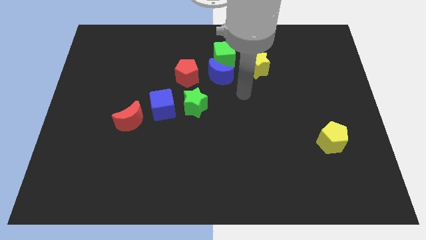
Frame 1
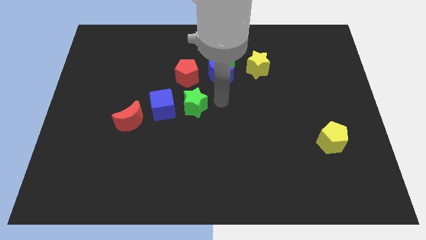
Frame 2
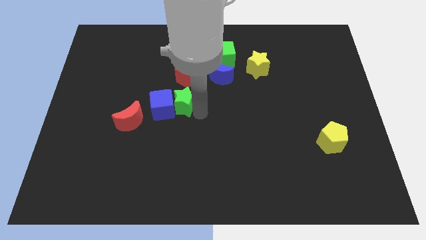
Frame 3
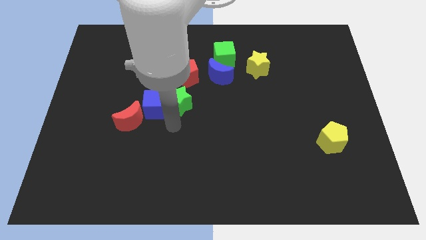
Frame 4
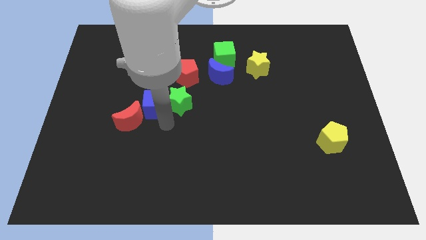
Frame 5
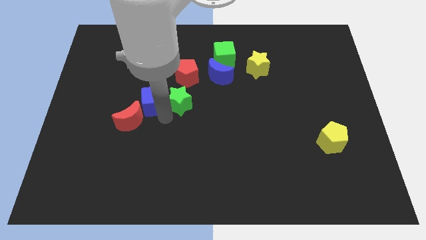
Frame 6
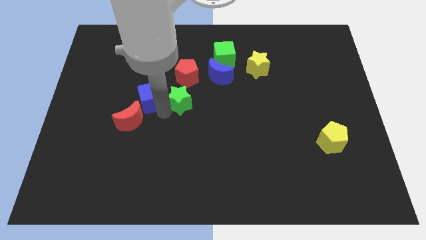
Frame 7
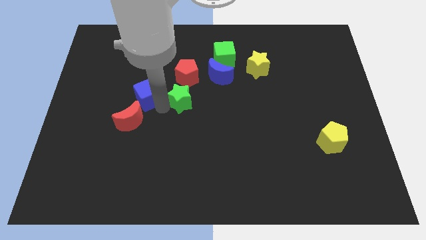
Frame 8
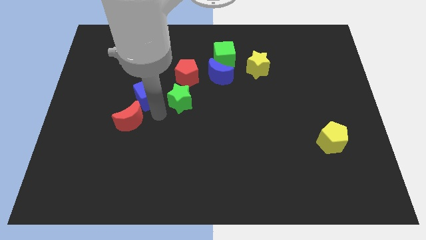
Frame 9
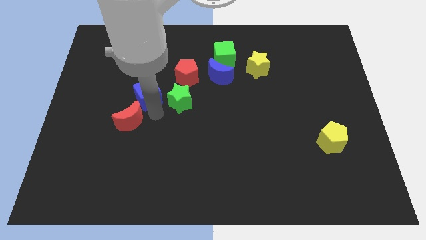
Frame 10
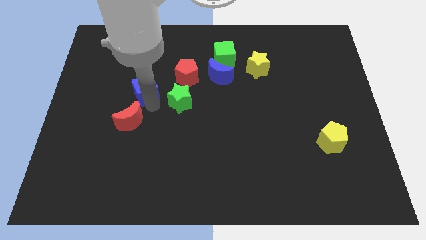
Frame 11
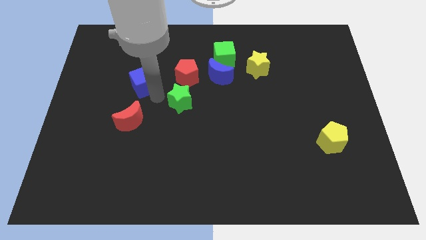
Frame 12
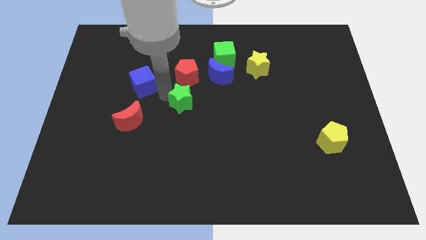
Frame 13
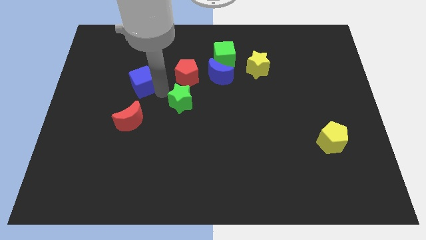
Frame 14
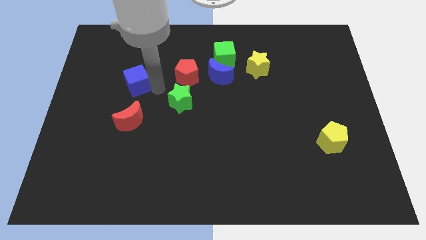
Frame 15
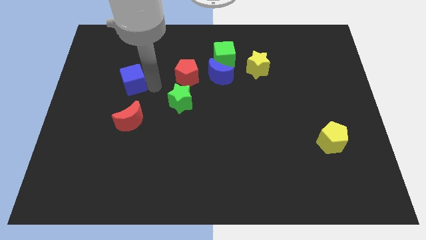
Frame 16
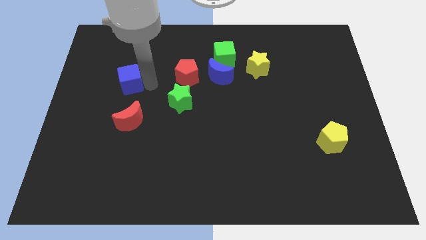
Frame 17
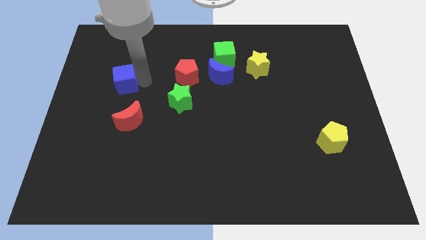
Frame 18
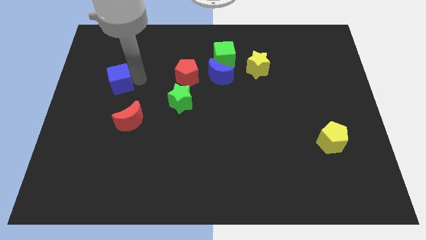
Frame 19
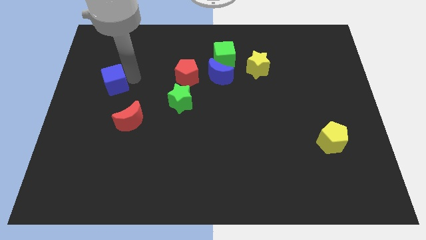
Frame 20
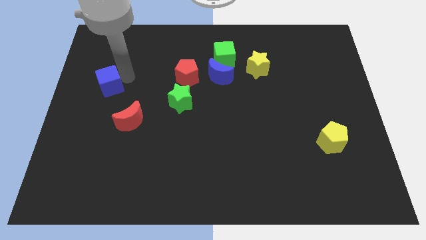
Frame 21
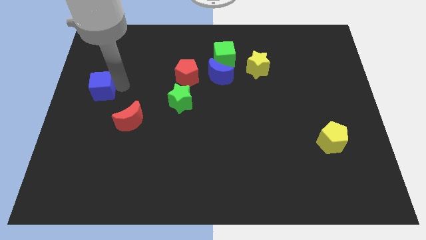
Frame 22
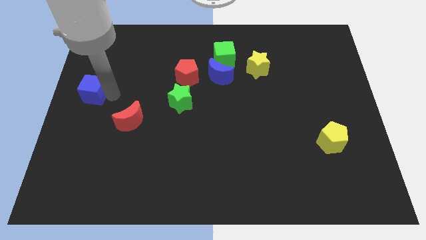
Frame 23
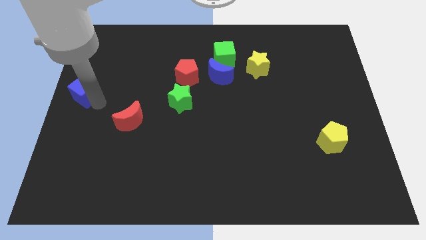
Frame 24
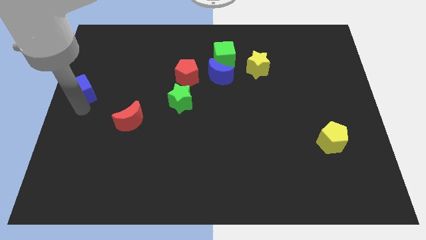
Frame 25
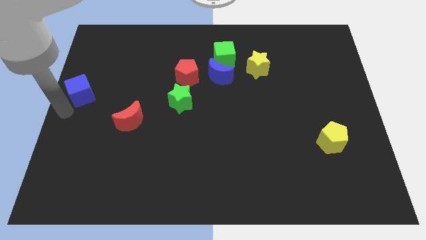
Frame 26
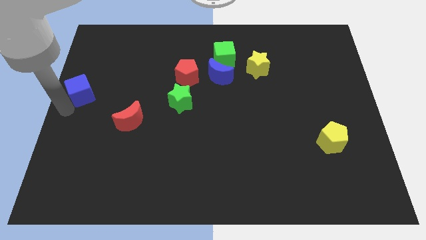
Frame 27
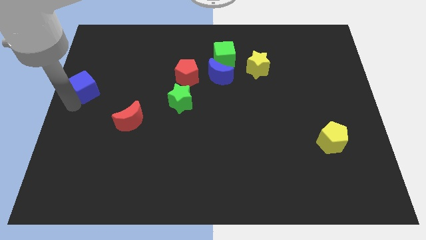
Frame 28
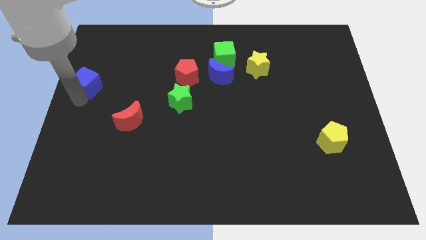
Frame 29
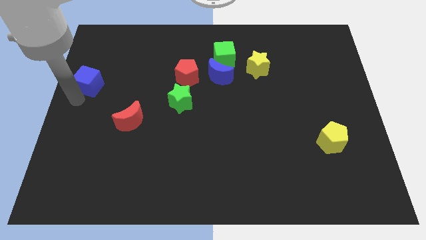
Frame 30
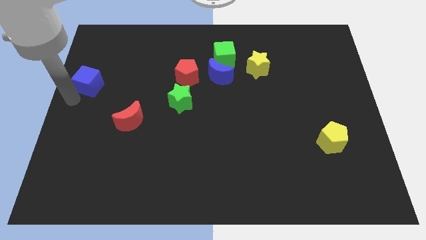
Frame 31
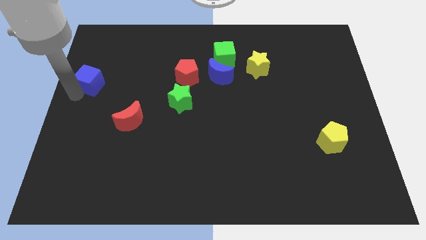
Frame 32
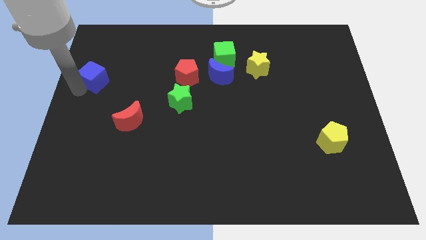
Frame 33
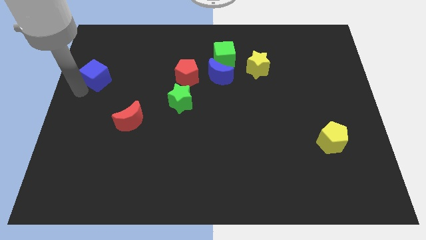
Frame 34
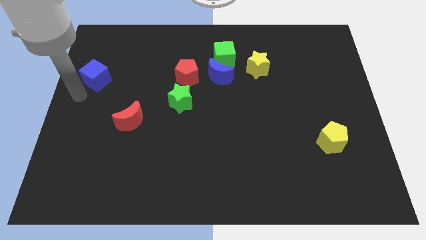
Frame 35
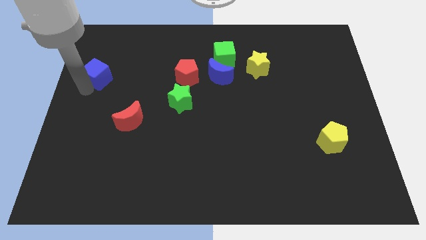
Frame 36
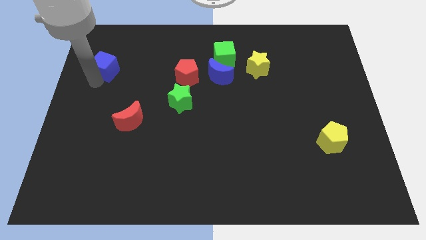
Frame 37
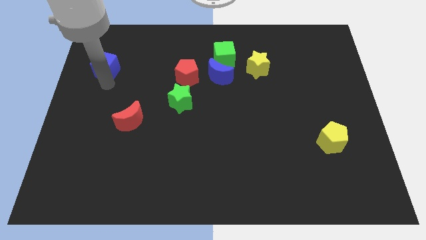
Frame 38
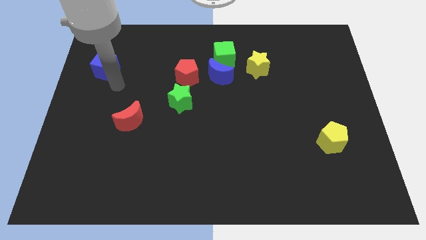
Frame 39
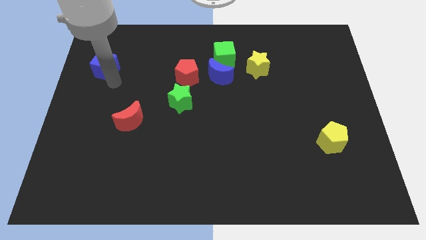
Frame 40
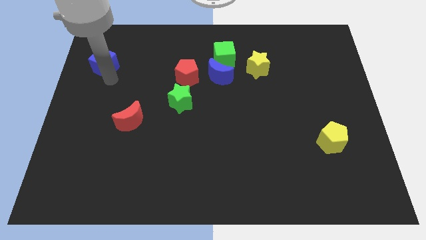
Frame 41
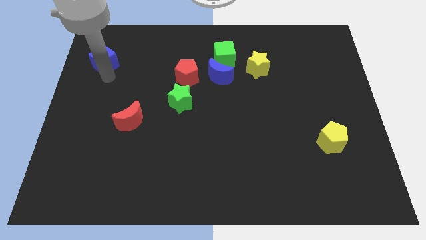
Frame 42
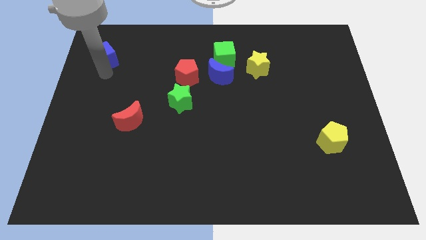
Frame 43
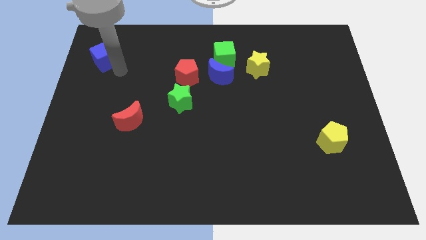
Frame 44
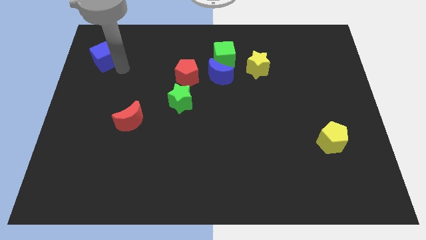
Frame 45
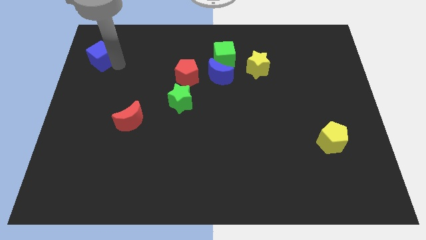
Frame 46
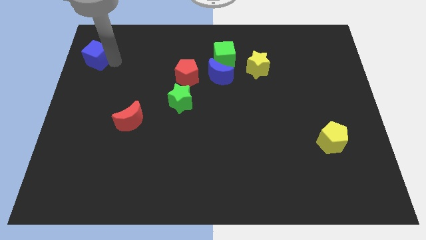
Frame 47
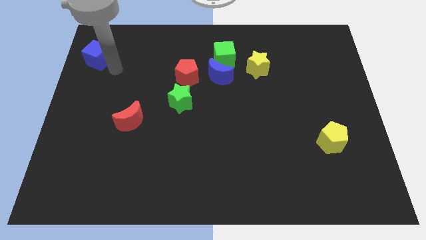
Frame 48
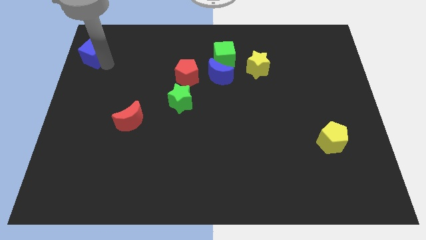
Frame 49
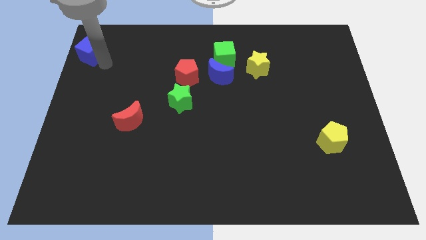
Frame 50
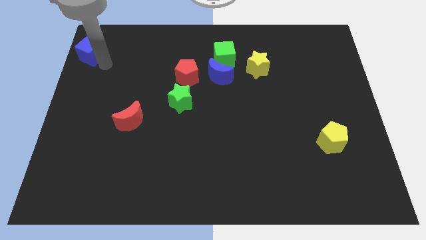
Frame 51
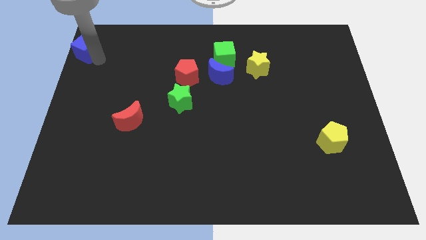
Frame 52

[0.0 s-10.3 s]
push the blue cube to the top left

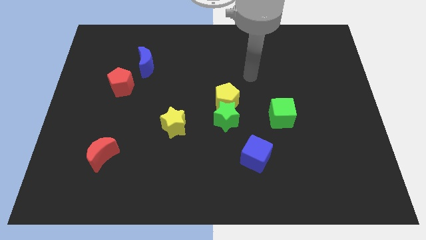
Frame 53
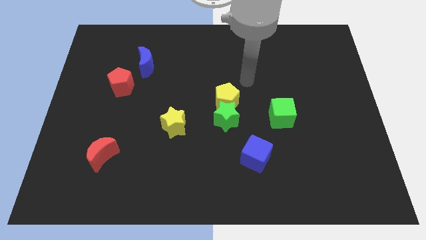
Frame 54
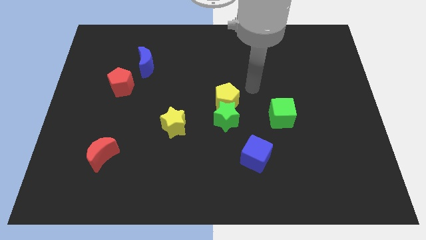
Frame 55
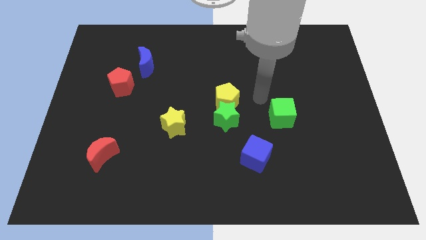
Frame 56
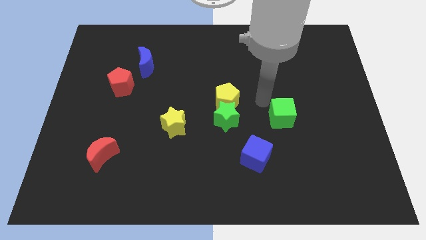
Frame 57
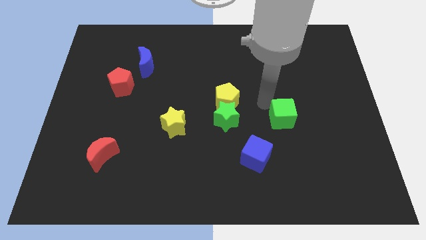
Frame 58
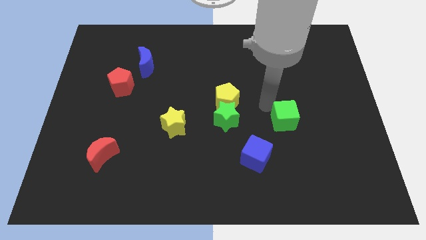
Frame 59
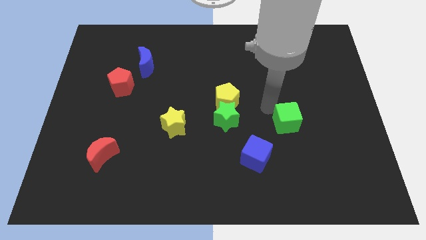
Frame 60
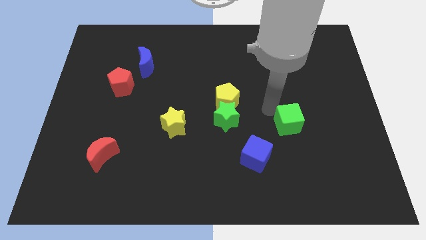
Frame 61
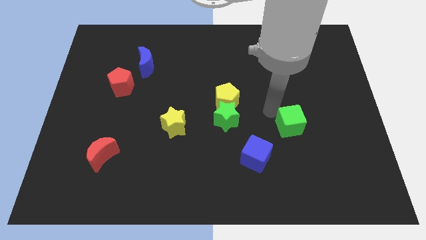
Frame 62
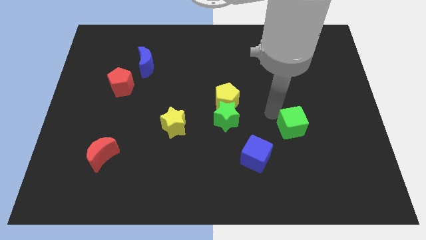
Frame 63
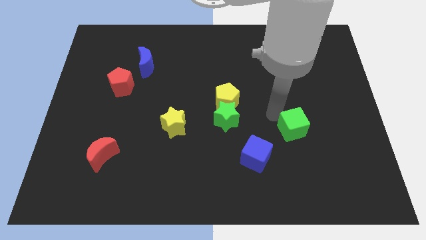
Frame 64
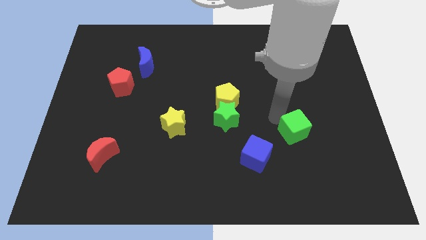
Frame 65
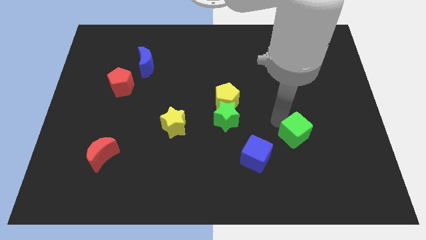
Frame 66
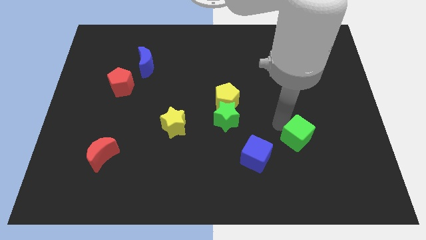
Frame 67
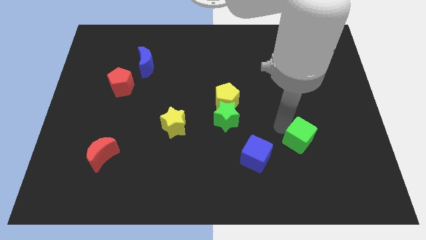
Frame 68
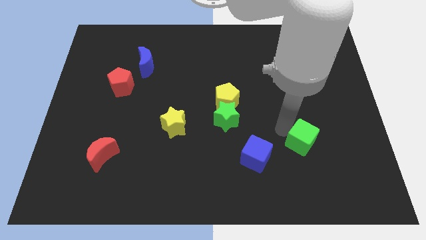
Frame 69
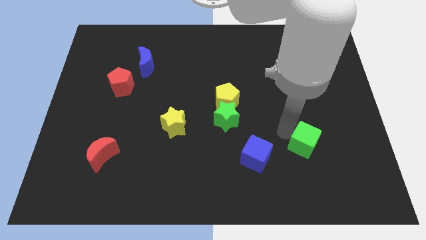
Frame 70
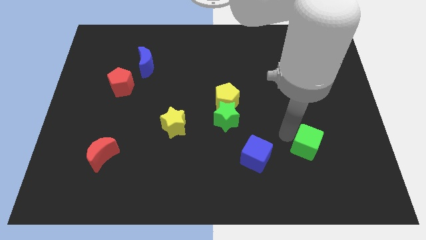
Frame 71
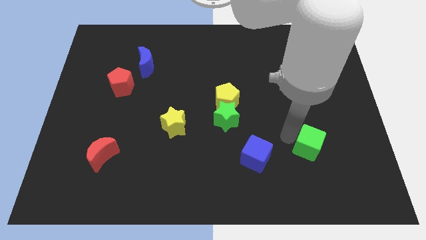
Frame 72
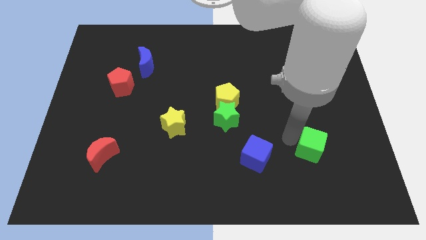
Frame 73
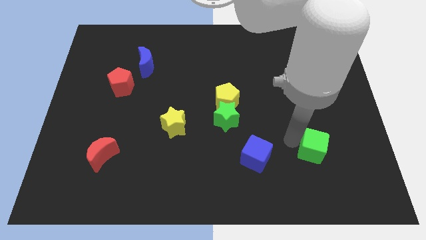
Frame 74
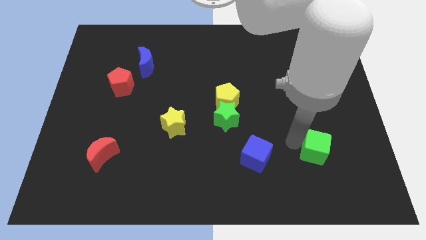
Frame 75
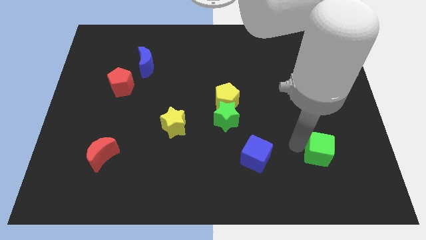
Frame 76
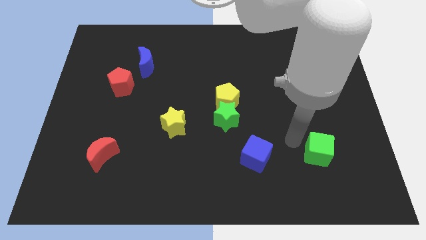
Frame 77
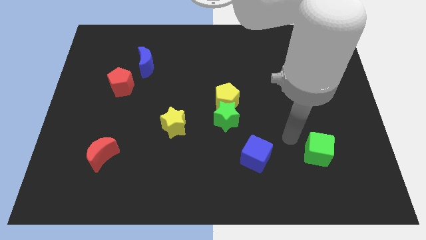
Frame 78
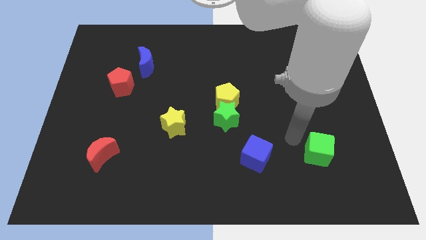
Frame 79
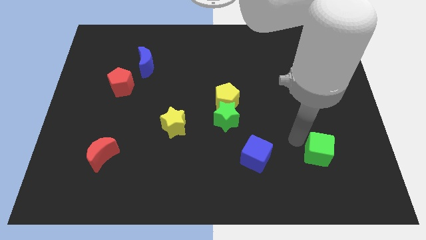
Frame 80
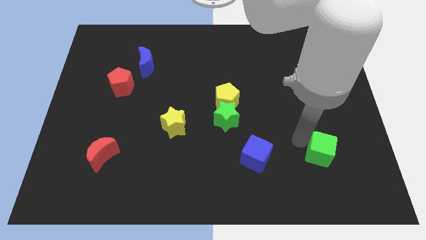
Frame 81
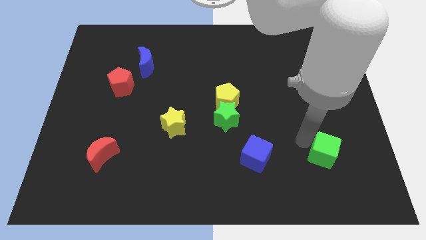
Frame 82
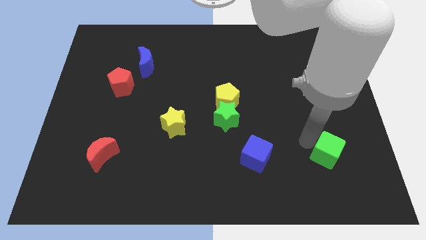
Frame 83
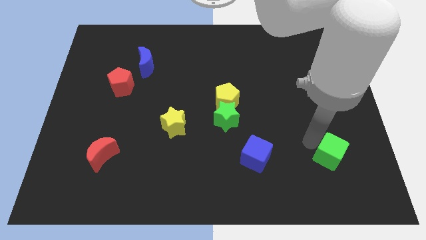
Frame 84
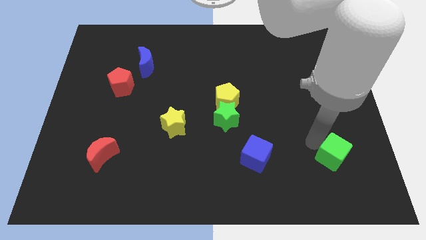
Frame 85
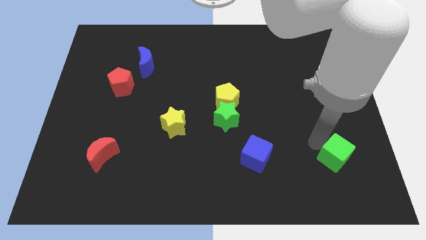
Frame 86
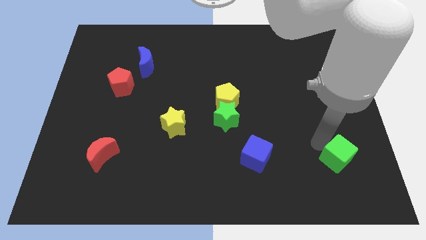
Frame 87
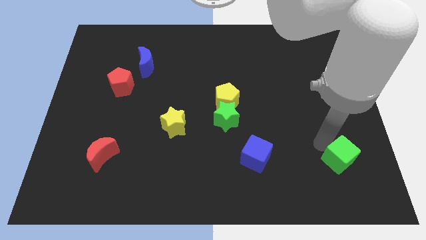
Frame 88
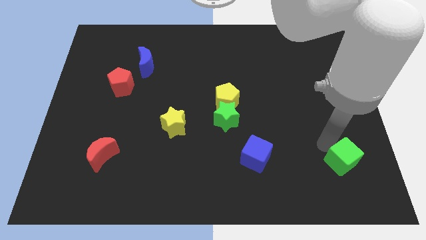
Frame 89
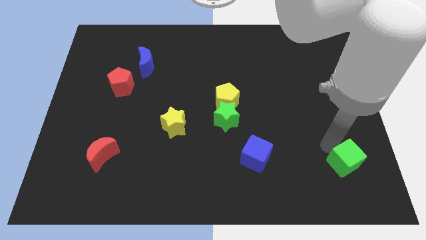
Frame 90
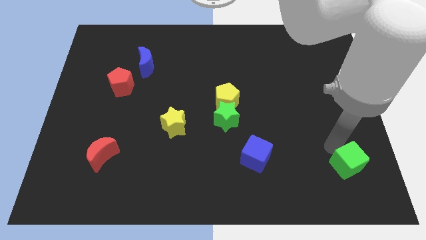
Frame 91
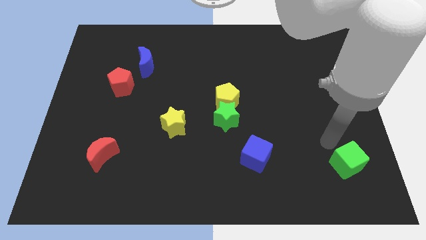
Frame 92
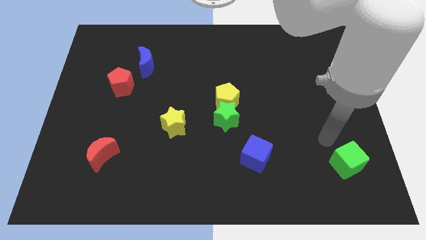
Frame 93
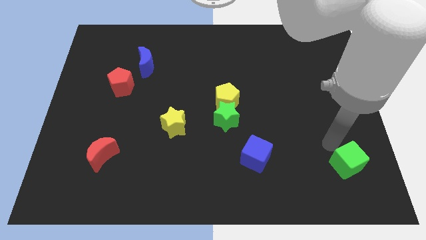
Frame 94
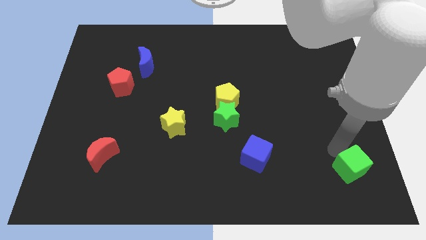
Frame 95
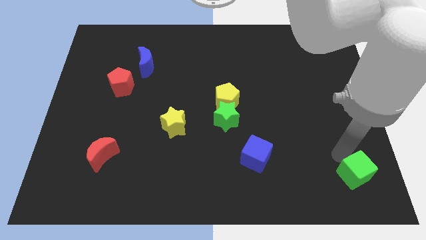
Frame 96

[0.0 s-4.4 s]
slide the green cube to the lower right corner
